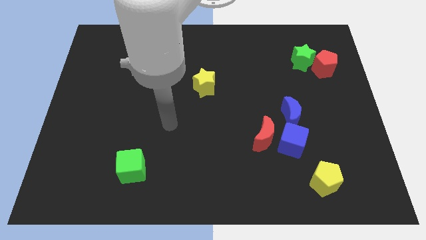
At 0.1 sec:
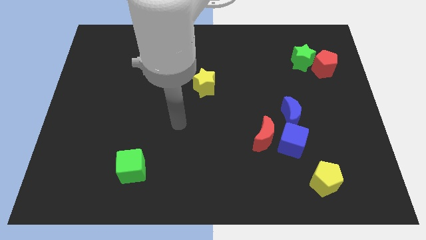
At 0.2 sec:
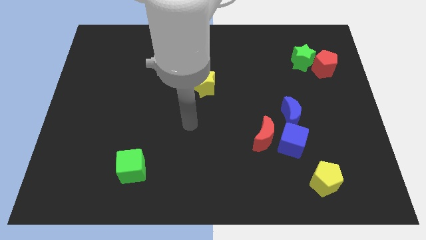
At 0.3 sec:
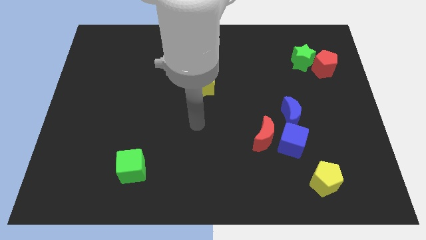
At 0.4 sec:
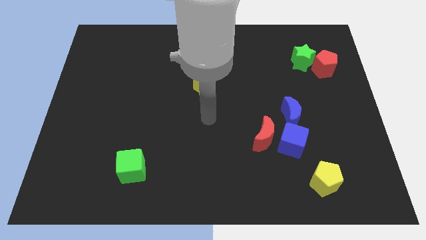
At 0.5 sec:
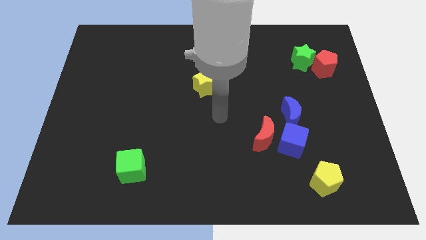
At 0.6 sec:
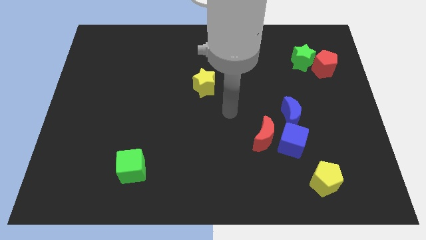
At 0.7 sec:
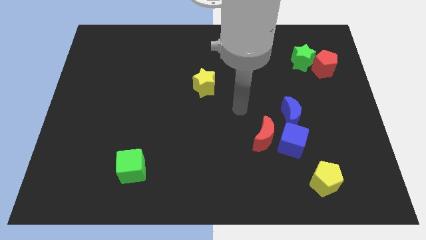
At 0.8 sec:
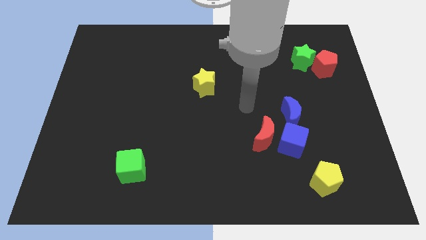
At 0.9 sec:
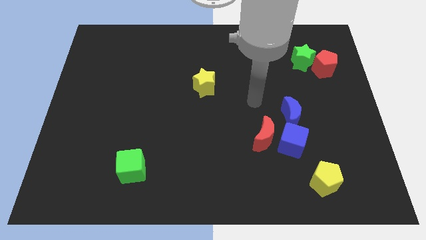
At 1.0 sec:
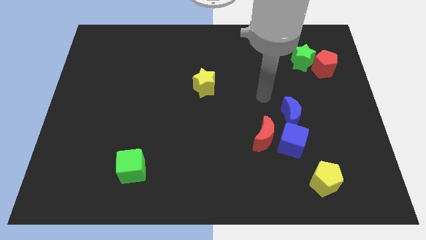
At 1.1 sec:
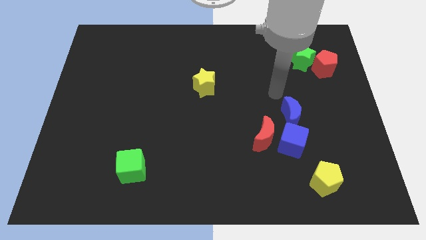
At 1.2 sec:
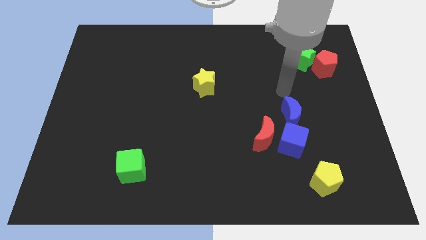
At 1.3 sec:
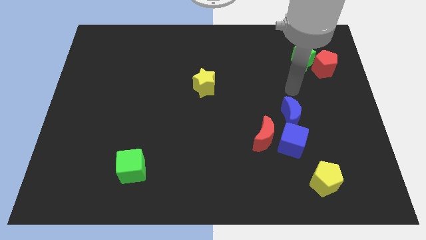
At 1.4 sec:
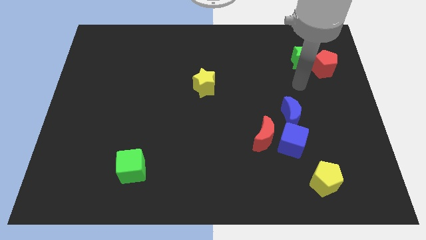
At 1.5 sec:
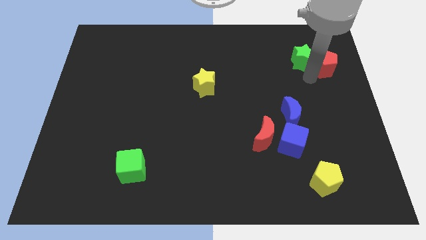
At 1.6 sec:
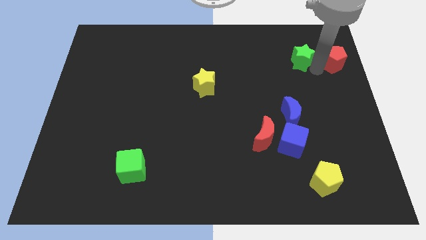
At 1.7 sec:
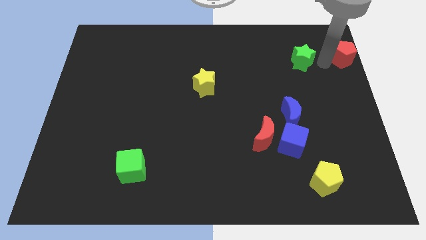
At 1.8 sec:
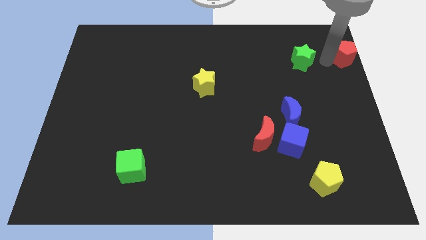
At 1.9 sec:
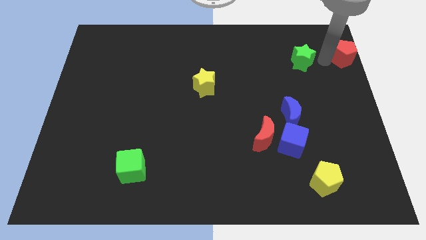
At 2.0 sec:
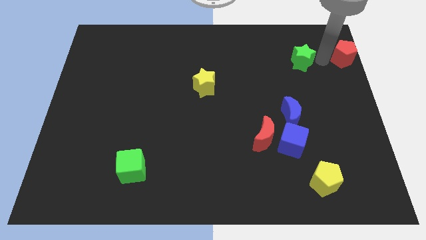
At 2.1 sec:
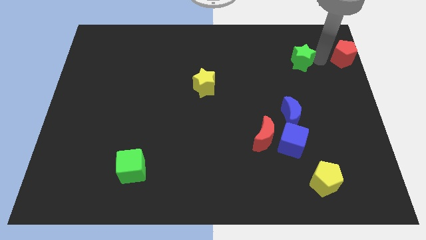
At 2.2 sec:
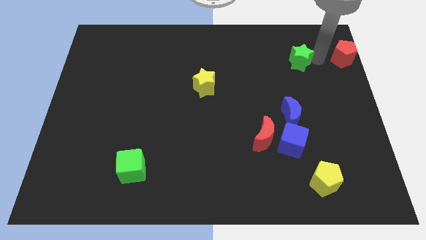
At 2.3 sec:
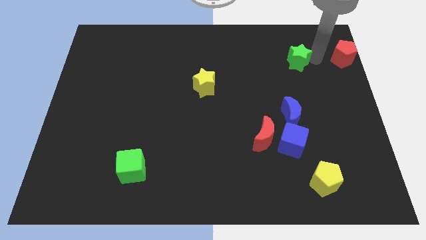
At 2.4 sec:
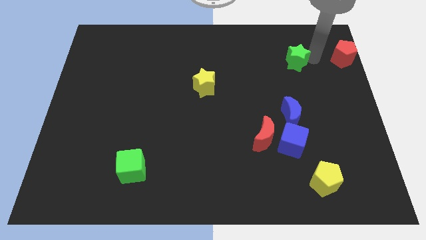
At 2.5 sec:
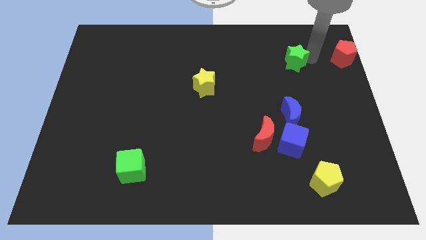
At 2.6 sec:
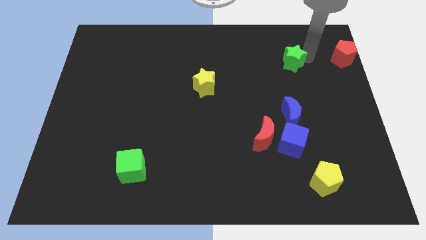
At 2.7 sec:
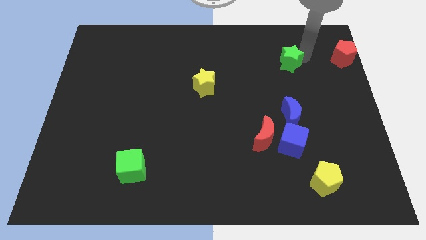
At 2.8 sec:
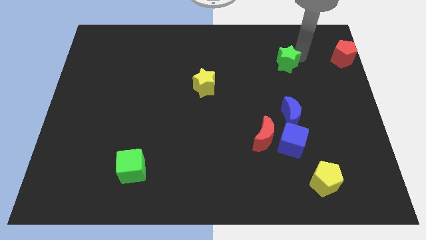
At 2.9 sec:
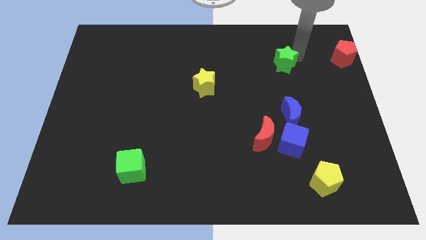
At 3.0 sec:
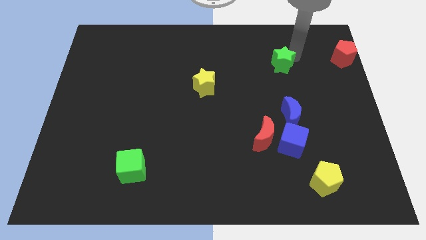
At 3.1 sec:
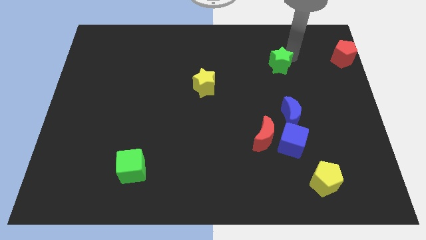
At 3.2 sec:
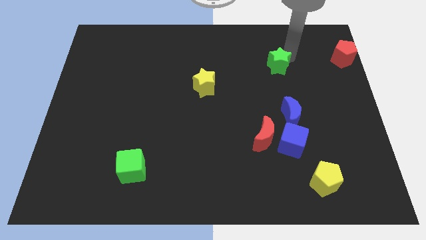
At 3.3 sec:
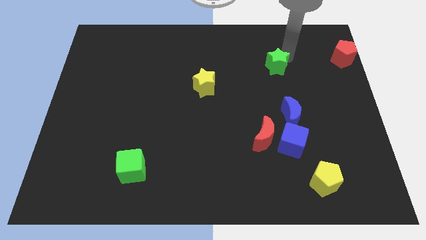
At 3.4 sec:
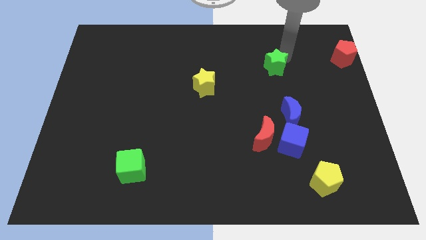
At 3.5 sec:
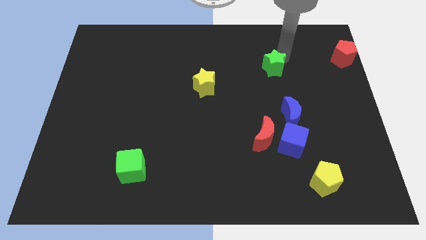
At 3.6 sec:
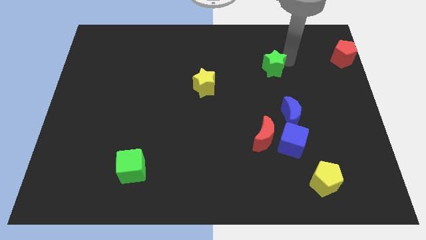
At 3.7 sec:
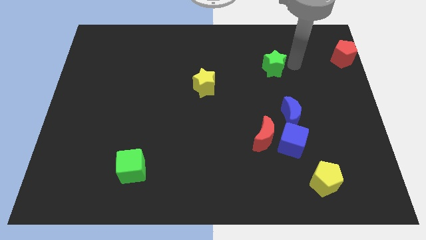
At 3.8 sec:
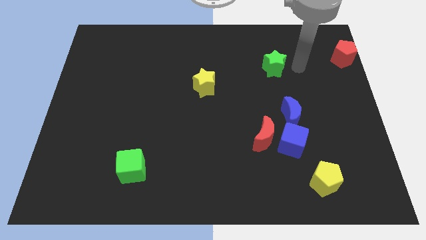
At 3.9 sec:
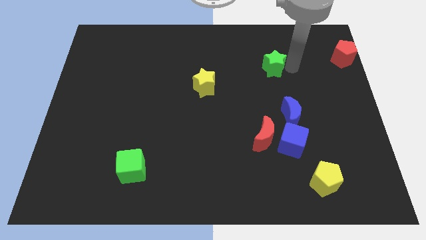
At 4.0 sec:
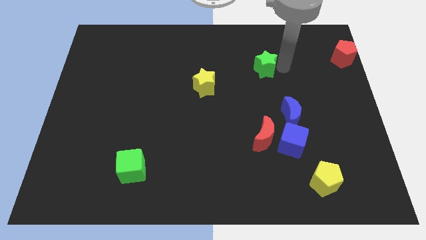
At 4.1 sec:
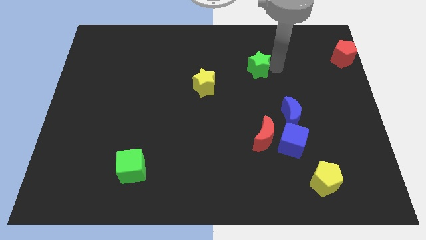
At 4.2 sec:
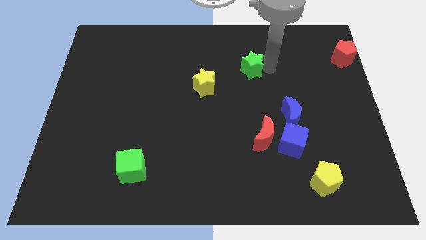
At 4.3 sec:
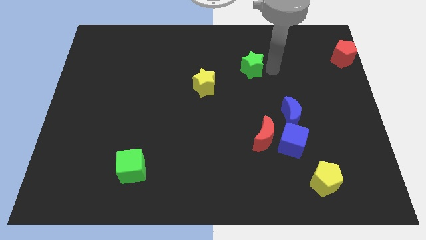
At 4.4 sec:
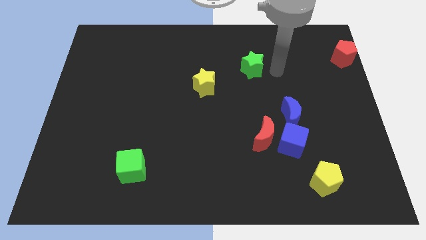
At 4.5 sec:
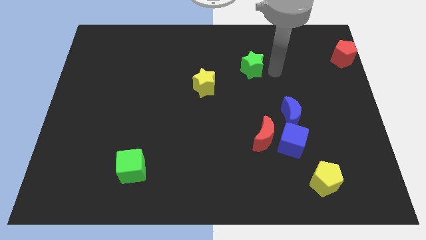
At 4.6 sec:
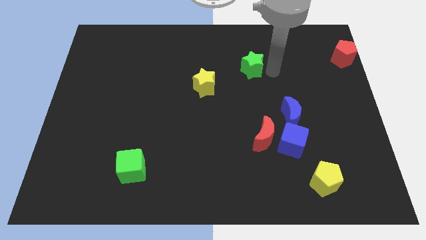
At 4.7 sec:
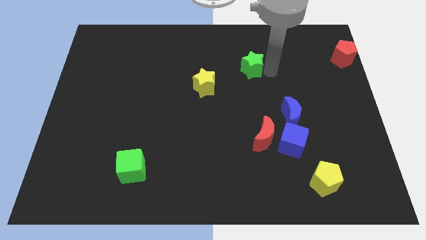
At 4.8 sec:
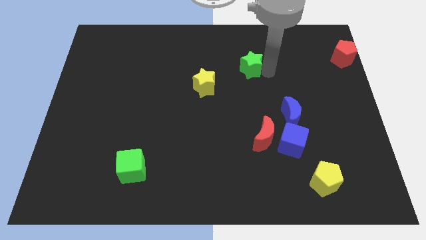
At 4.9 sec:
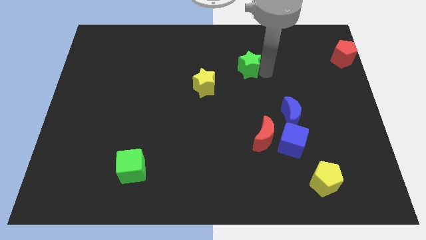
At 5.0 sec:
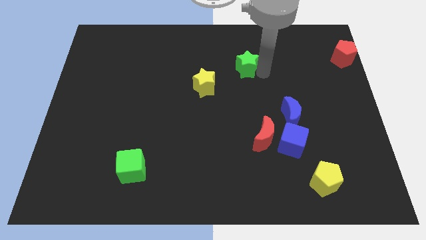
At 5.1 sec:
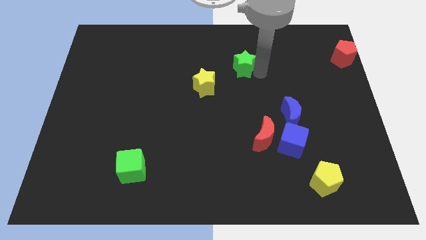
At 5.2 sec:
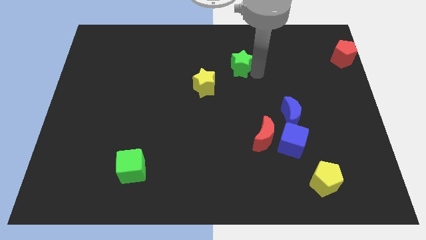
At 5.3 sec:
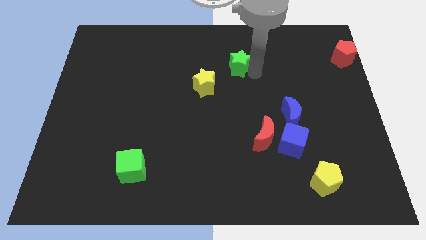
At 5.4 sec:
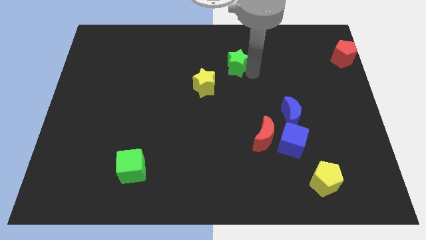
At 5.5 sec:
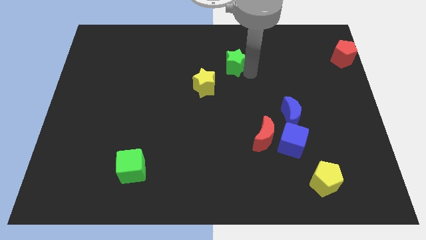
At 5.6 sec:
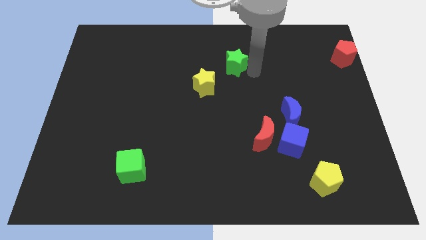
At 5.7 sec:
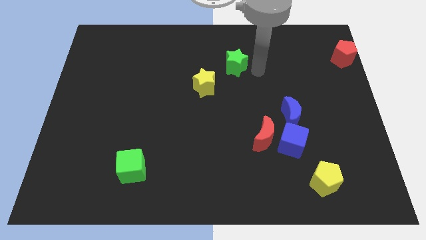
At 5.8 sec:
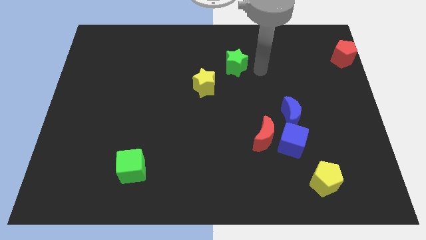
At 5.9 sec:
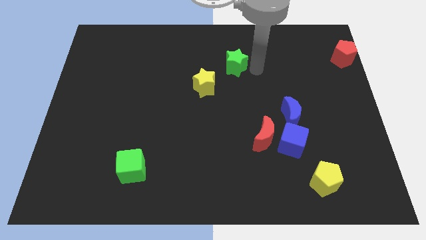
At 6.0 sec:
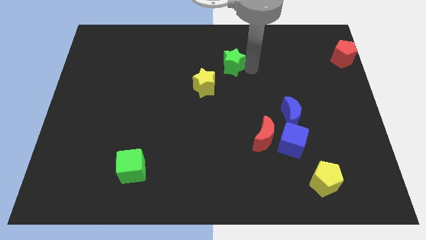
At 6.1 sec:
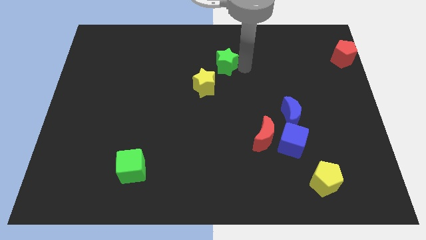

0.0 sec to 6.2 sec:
slide the green star to the left

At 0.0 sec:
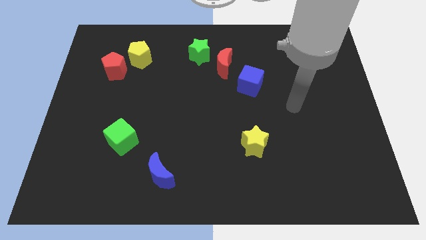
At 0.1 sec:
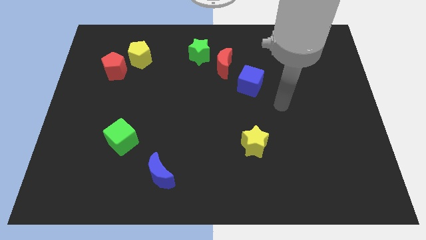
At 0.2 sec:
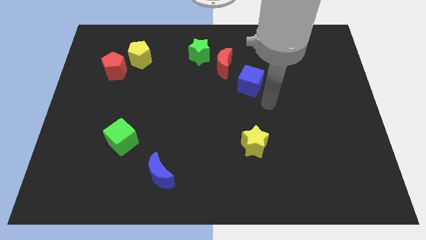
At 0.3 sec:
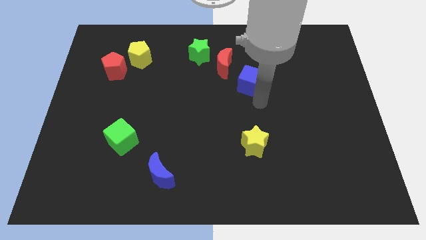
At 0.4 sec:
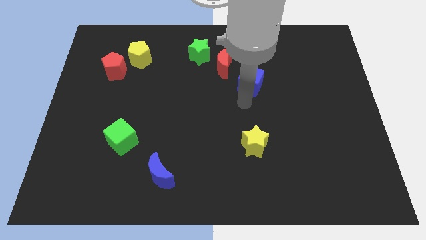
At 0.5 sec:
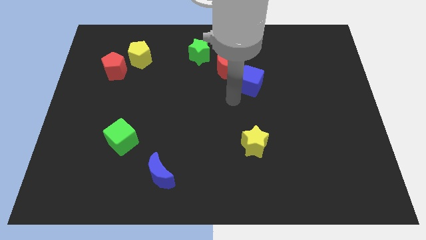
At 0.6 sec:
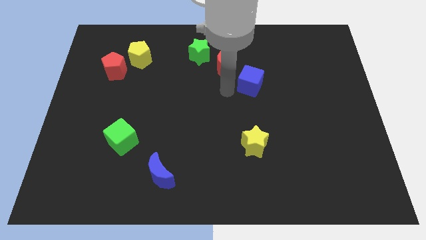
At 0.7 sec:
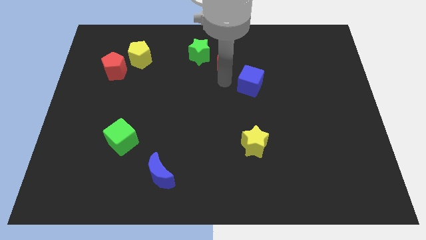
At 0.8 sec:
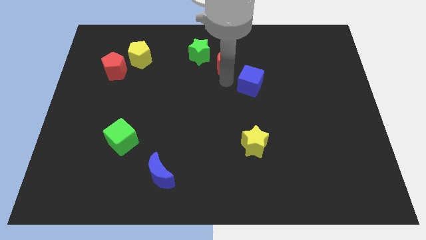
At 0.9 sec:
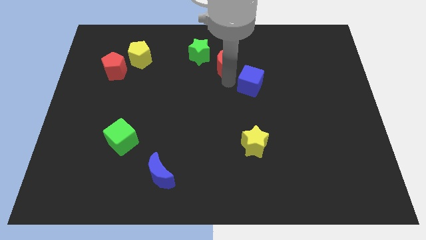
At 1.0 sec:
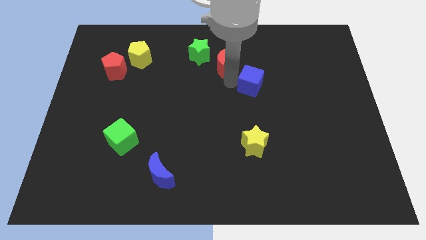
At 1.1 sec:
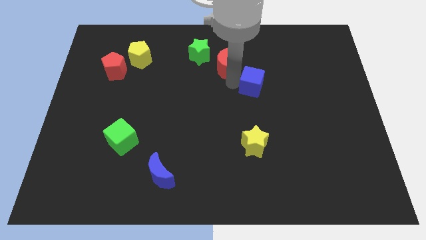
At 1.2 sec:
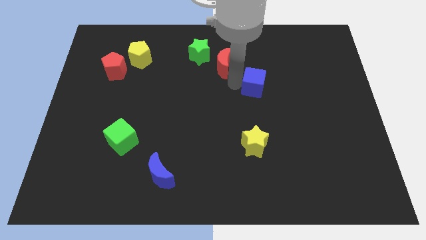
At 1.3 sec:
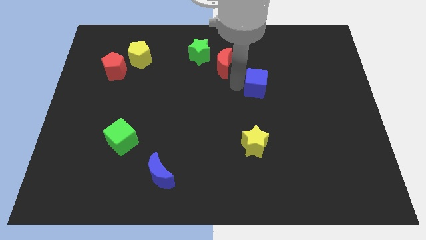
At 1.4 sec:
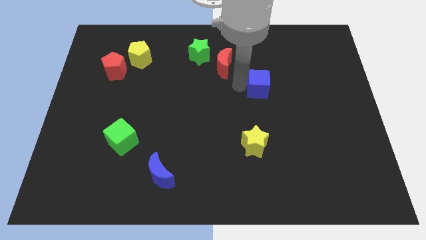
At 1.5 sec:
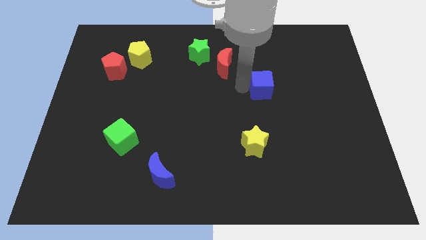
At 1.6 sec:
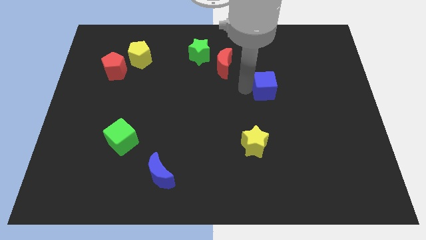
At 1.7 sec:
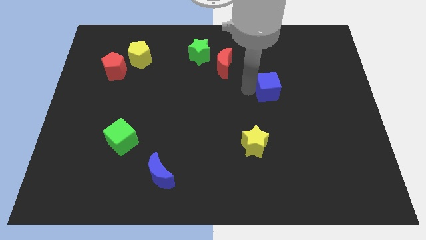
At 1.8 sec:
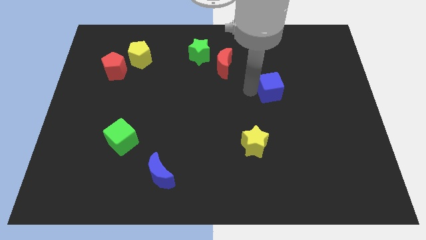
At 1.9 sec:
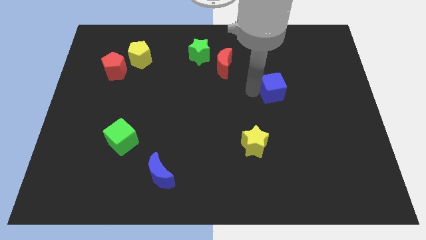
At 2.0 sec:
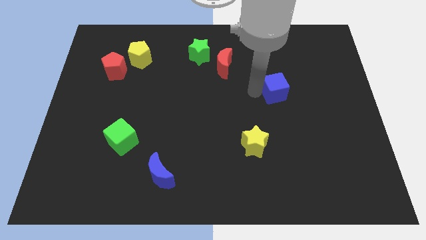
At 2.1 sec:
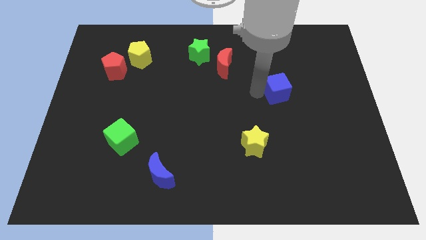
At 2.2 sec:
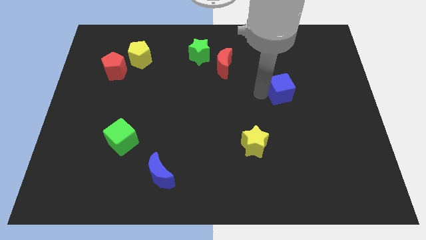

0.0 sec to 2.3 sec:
slightly move the blue cube to the right
